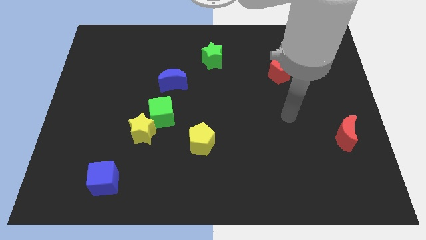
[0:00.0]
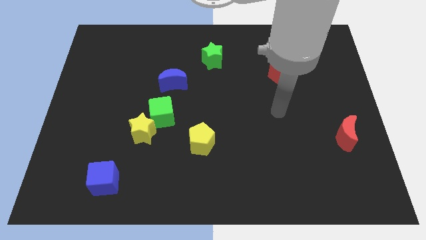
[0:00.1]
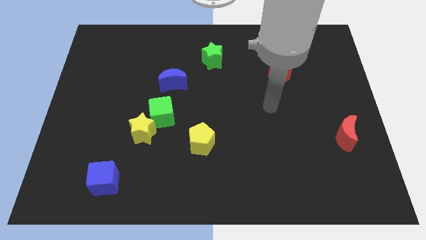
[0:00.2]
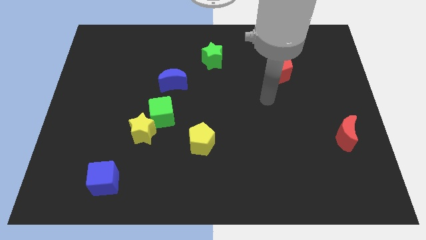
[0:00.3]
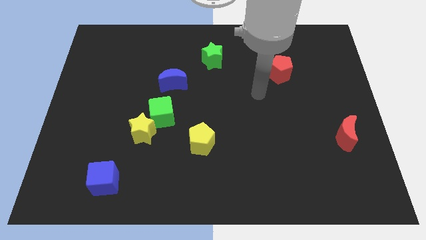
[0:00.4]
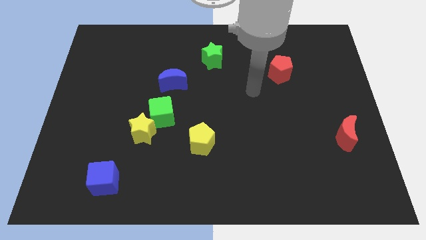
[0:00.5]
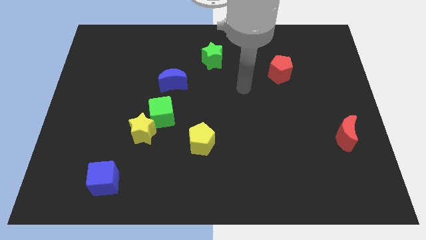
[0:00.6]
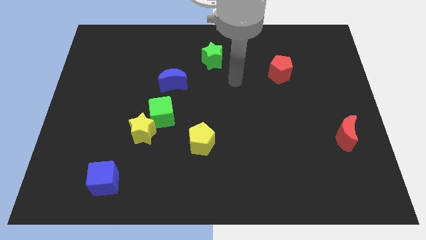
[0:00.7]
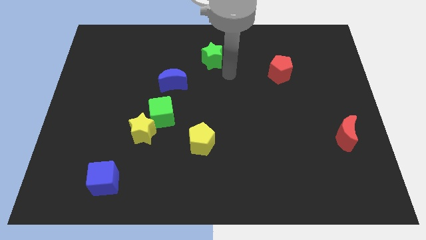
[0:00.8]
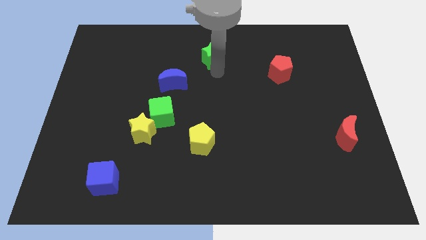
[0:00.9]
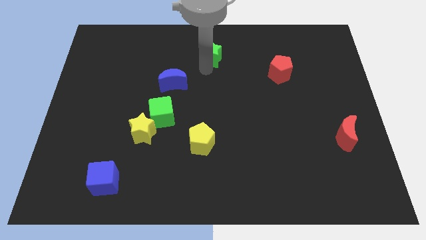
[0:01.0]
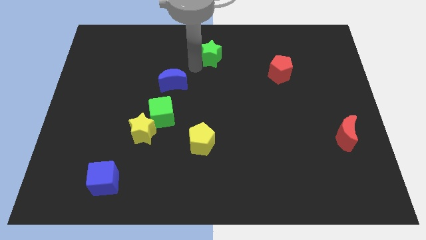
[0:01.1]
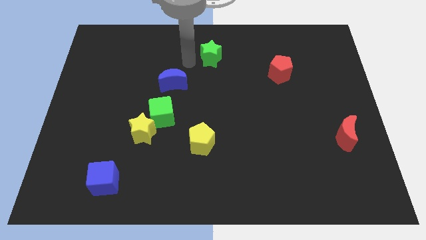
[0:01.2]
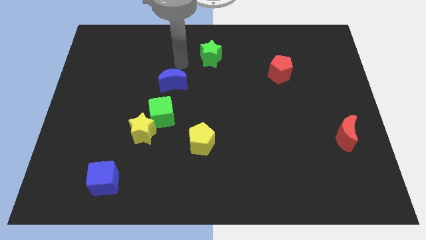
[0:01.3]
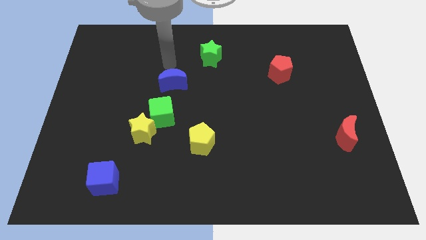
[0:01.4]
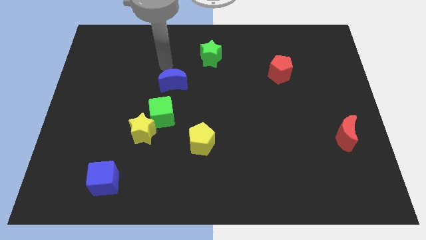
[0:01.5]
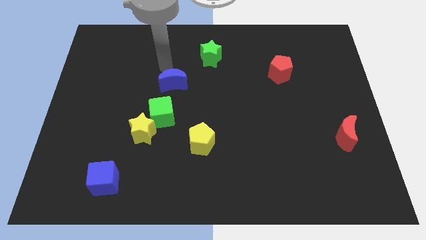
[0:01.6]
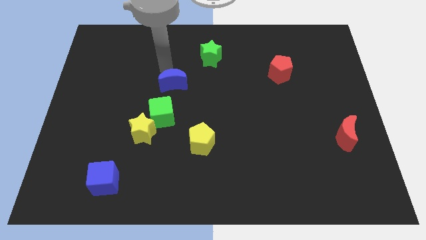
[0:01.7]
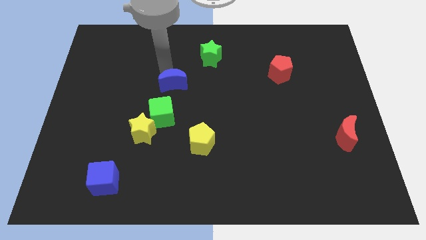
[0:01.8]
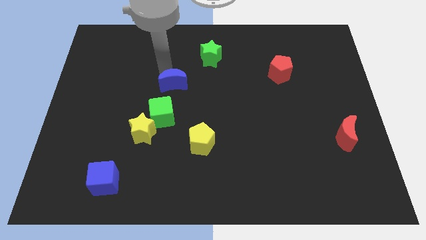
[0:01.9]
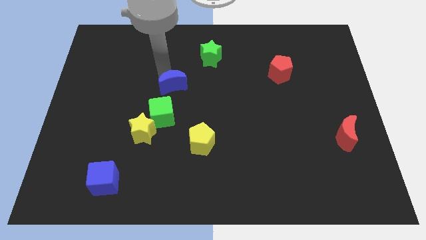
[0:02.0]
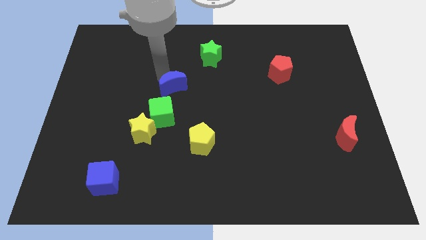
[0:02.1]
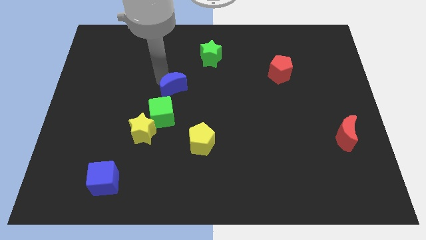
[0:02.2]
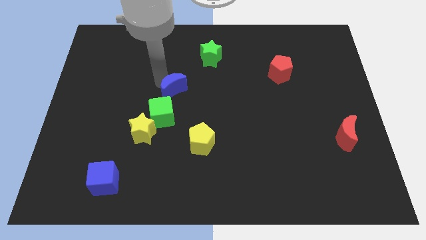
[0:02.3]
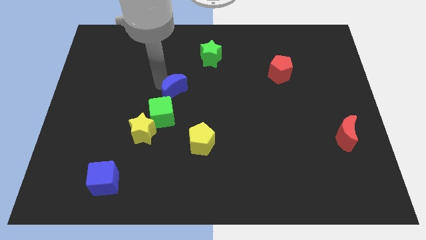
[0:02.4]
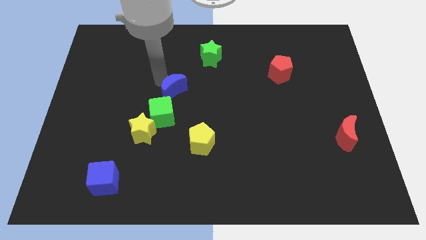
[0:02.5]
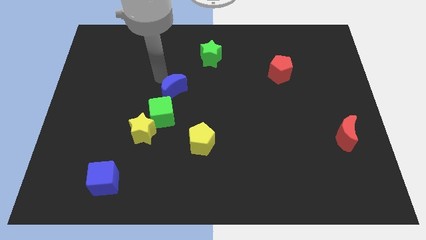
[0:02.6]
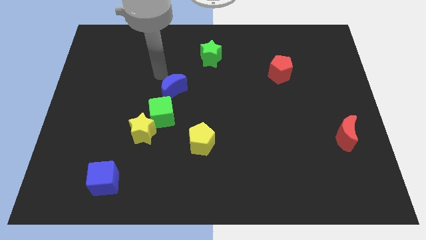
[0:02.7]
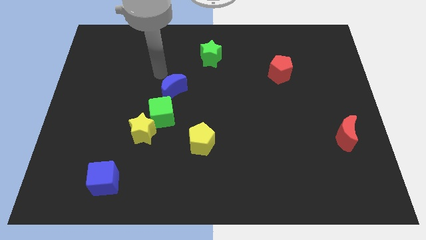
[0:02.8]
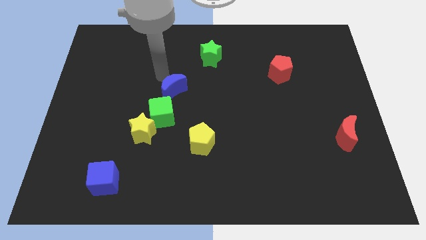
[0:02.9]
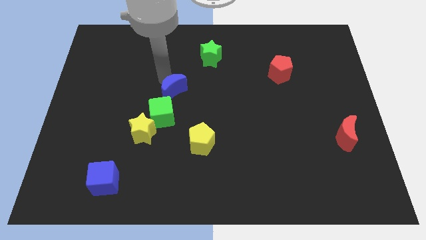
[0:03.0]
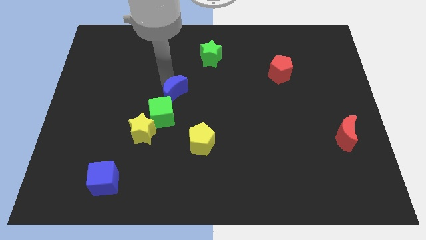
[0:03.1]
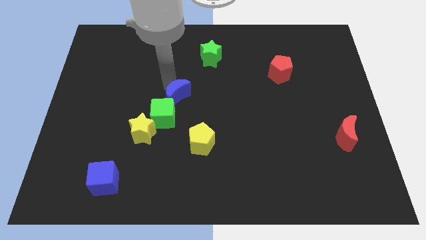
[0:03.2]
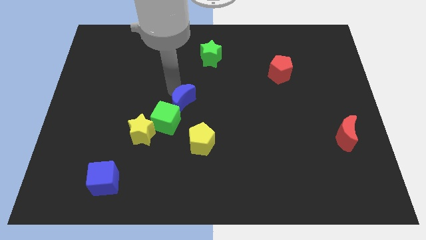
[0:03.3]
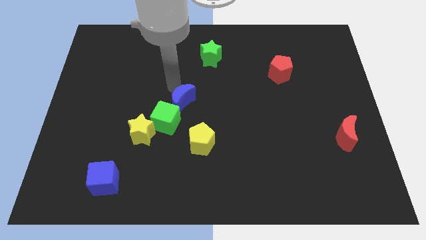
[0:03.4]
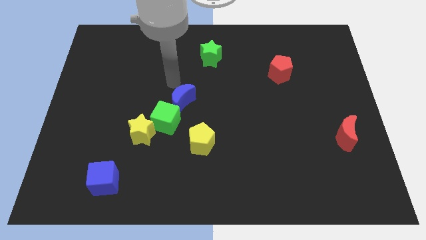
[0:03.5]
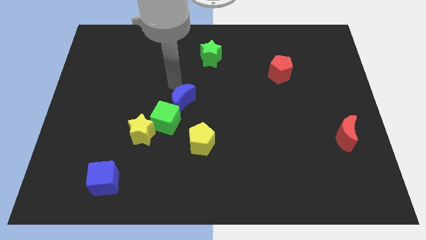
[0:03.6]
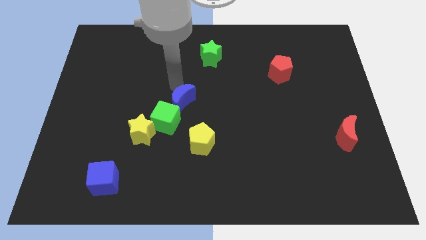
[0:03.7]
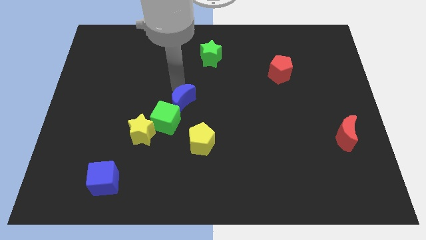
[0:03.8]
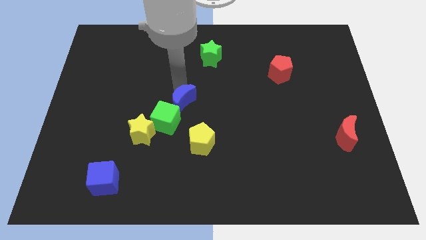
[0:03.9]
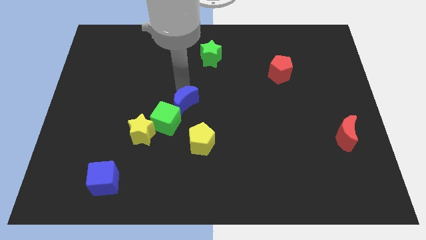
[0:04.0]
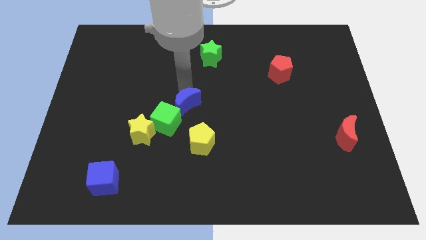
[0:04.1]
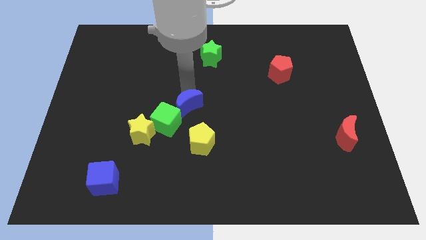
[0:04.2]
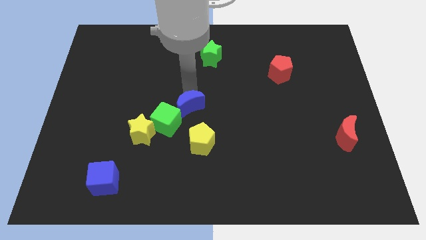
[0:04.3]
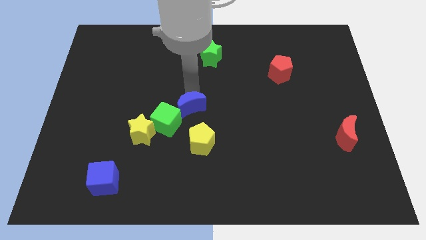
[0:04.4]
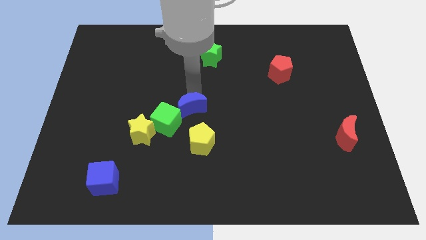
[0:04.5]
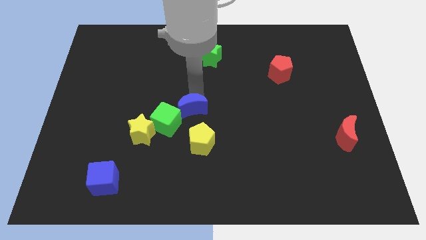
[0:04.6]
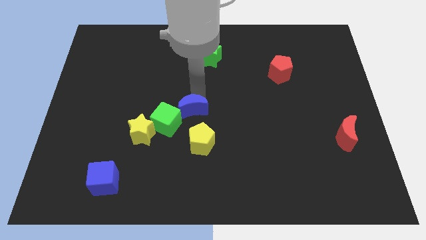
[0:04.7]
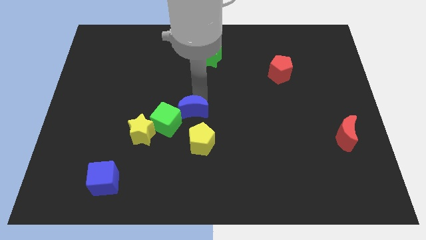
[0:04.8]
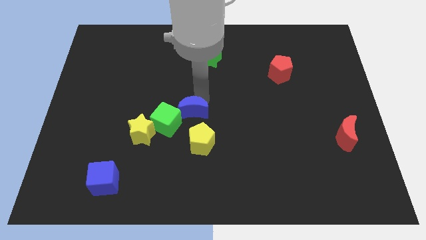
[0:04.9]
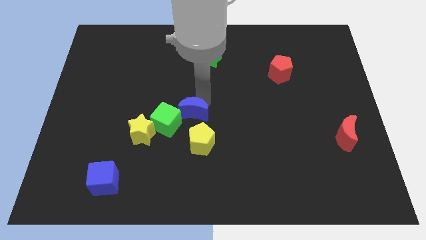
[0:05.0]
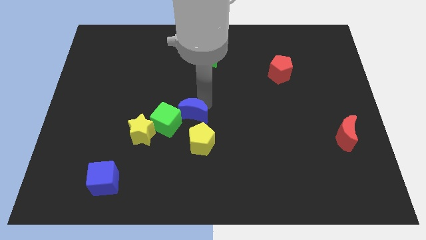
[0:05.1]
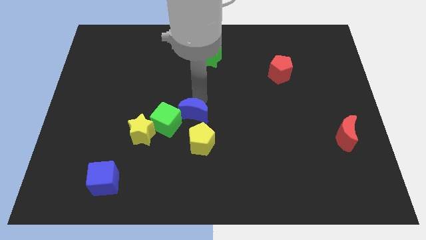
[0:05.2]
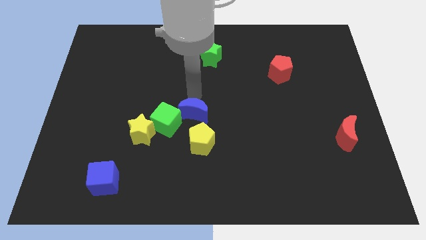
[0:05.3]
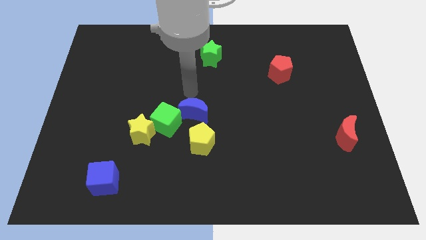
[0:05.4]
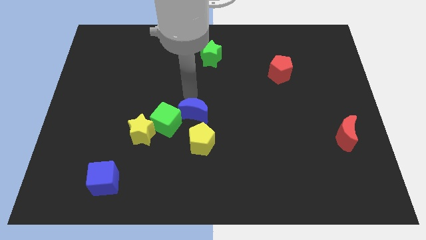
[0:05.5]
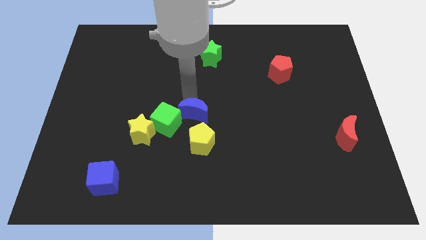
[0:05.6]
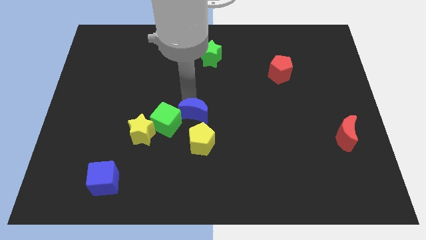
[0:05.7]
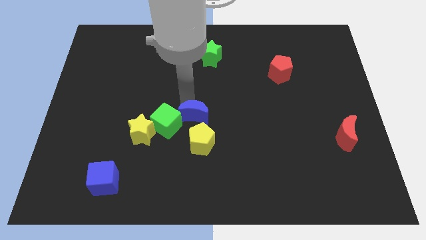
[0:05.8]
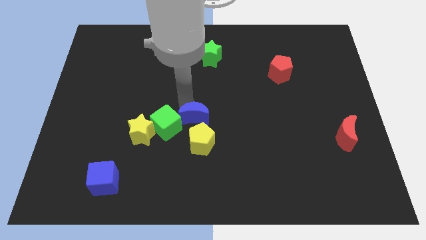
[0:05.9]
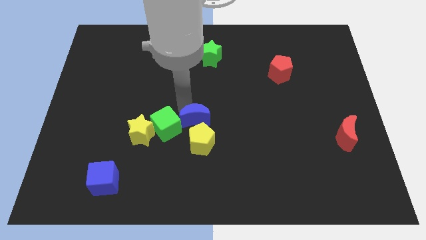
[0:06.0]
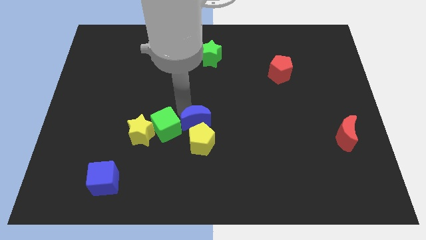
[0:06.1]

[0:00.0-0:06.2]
push the blue moon close to the yellow pentagon

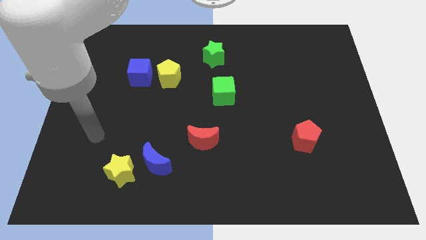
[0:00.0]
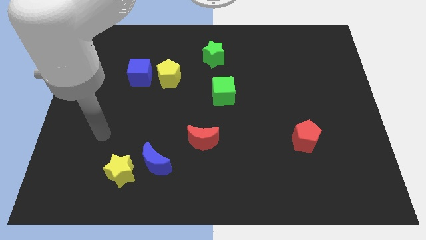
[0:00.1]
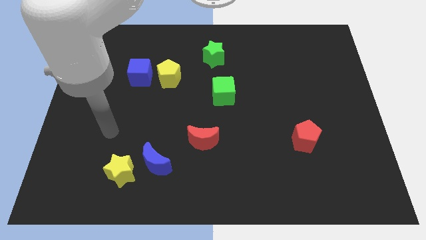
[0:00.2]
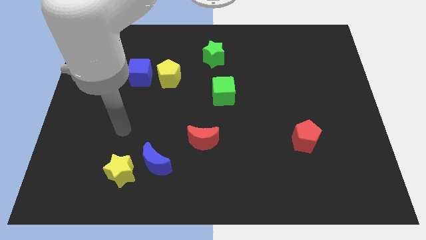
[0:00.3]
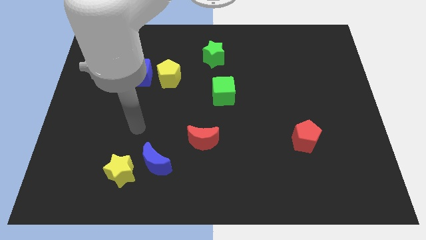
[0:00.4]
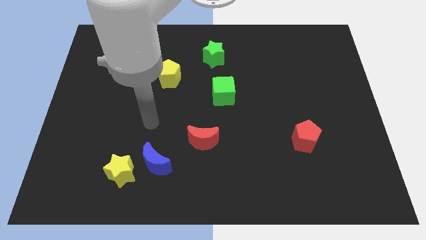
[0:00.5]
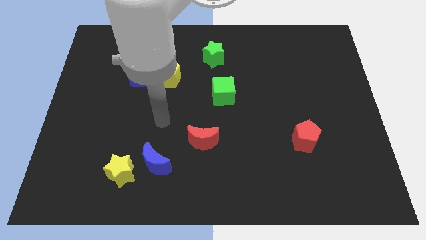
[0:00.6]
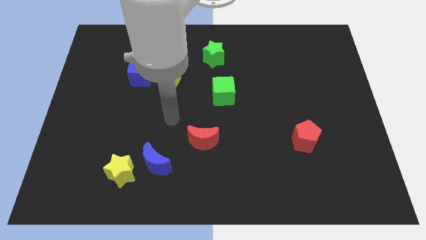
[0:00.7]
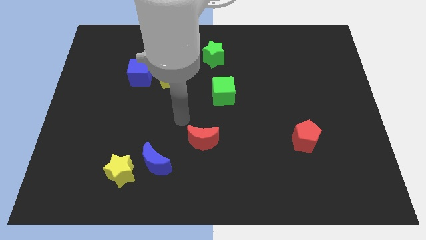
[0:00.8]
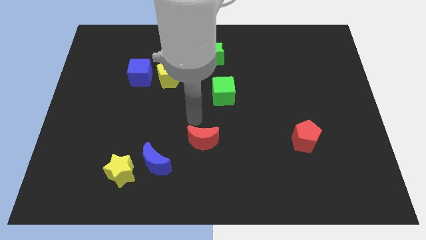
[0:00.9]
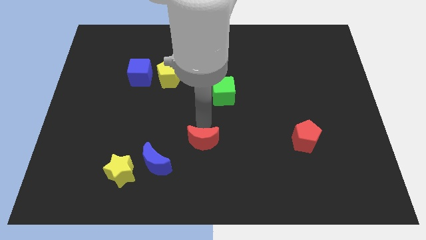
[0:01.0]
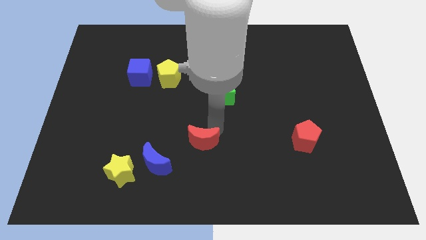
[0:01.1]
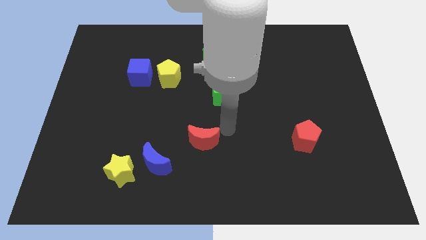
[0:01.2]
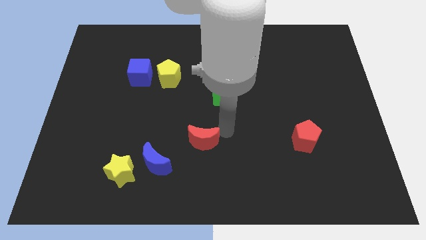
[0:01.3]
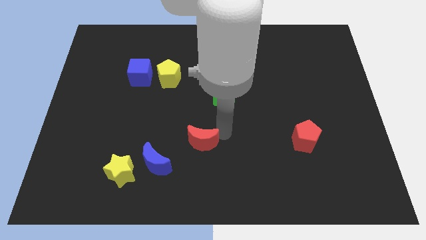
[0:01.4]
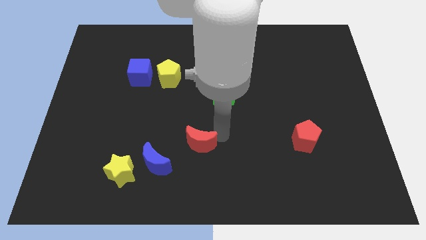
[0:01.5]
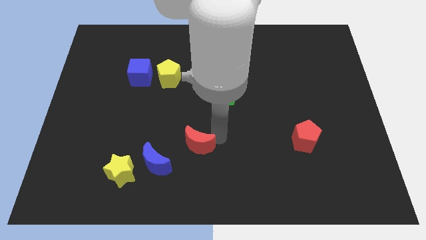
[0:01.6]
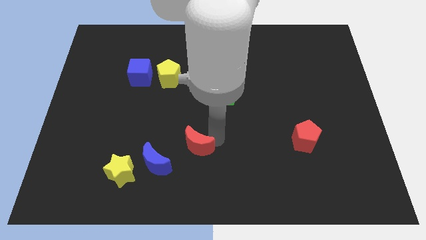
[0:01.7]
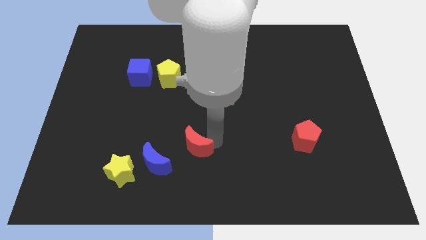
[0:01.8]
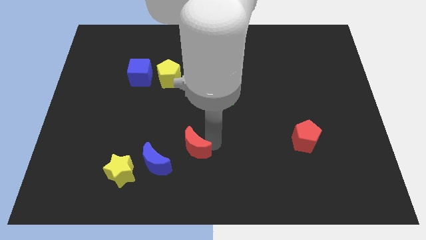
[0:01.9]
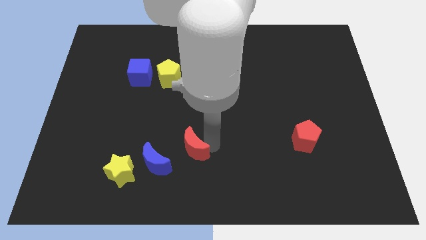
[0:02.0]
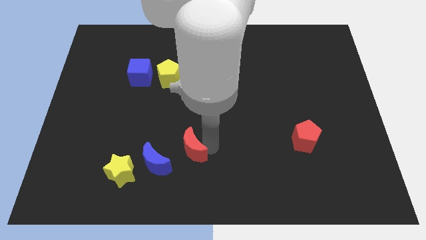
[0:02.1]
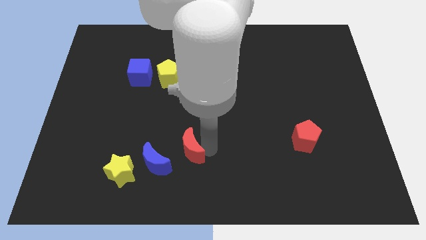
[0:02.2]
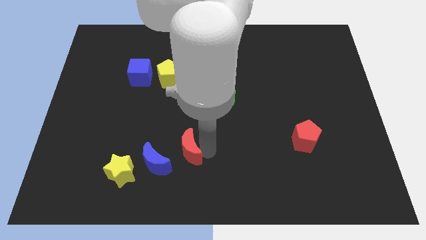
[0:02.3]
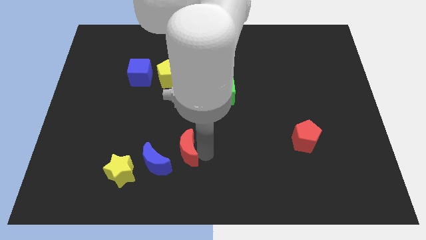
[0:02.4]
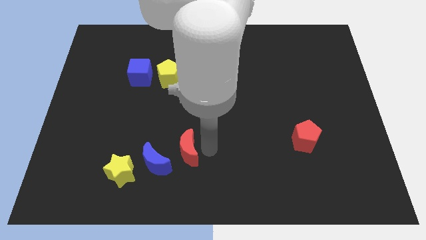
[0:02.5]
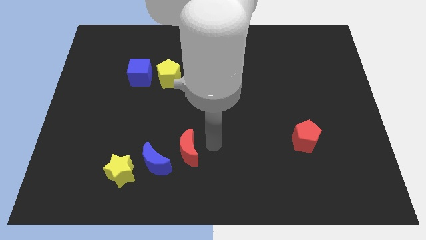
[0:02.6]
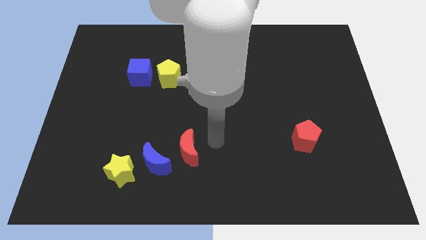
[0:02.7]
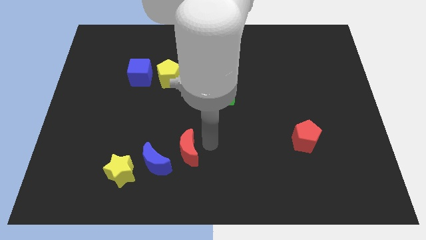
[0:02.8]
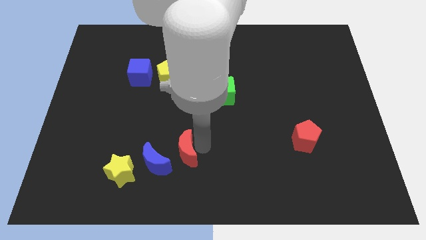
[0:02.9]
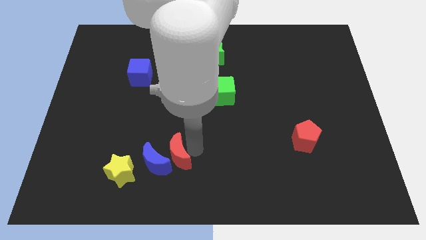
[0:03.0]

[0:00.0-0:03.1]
put the red moon to the blue moon
